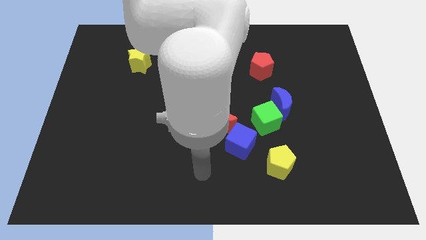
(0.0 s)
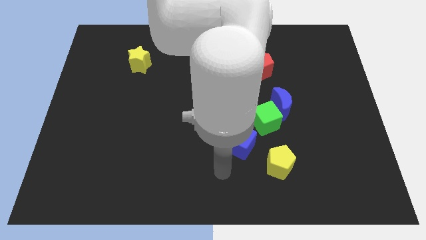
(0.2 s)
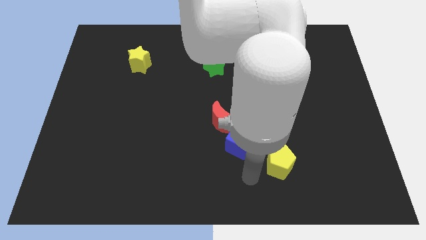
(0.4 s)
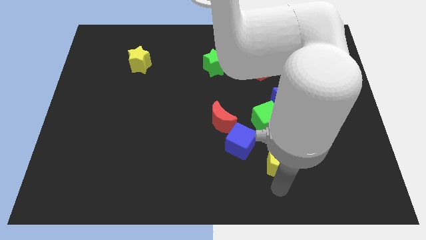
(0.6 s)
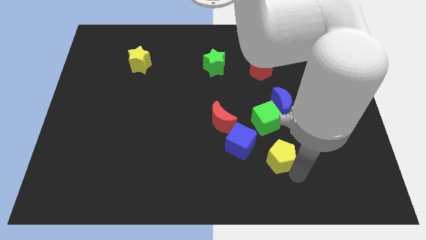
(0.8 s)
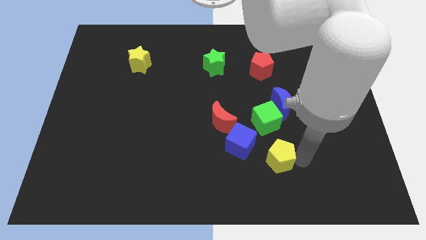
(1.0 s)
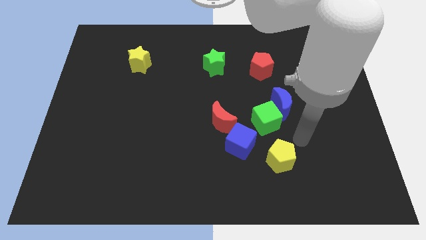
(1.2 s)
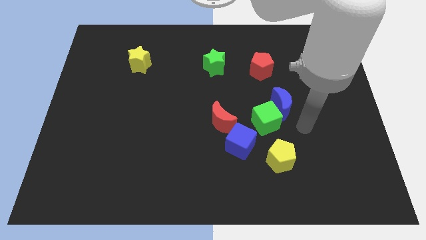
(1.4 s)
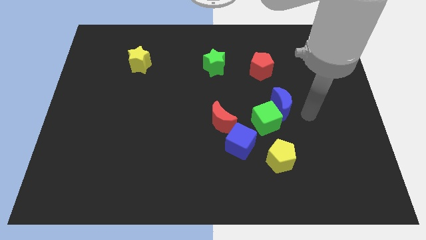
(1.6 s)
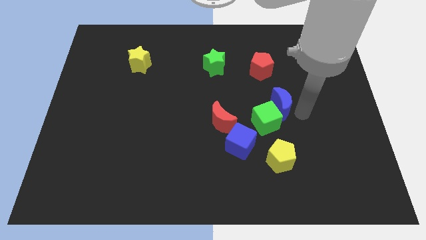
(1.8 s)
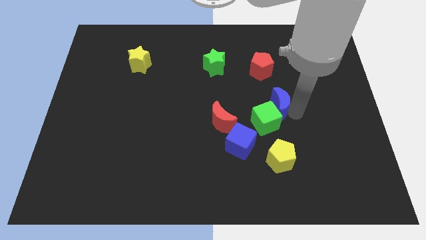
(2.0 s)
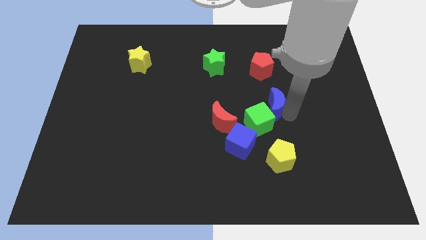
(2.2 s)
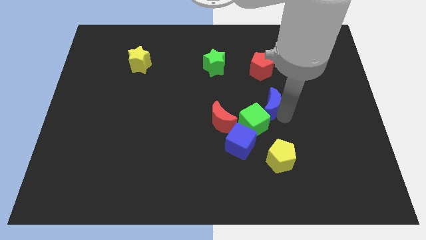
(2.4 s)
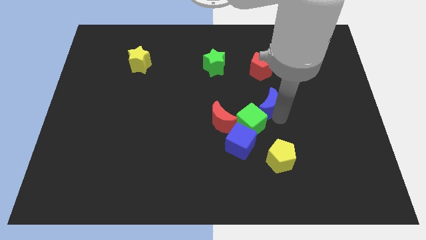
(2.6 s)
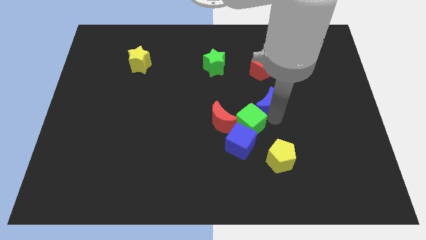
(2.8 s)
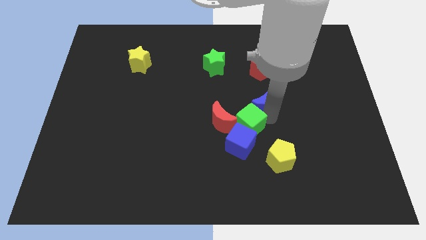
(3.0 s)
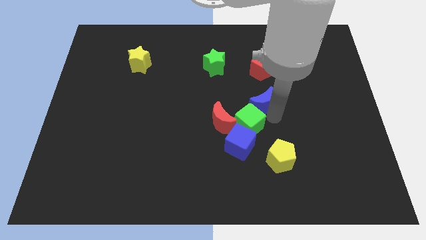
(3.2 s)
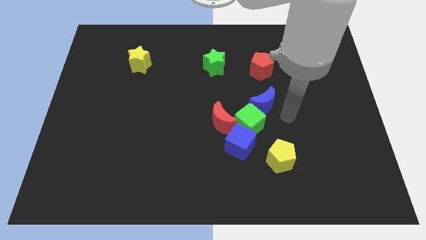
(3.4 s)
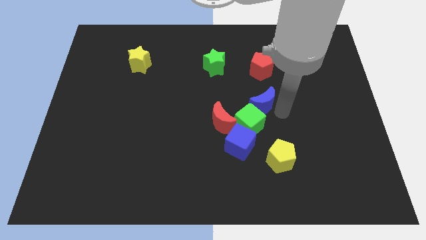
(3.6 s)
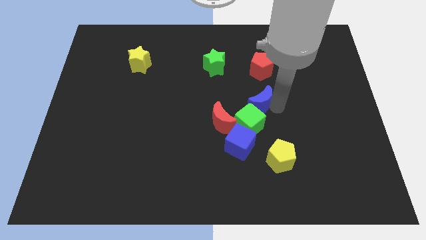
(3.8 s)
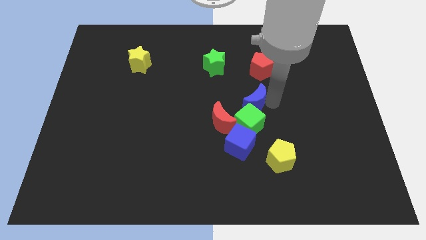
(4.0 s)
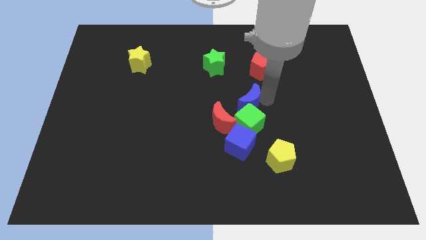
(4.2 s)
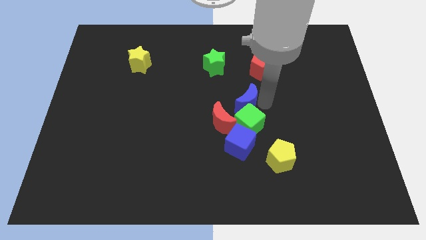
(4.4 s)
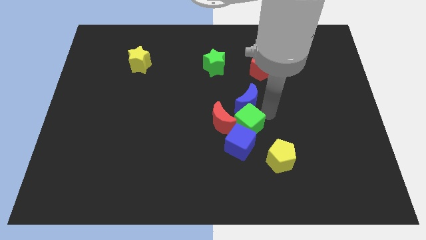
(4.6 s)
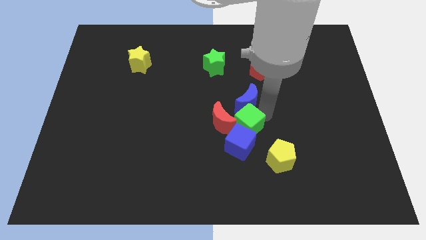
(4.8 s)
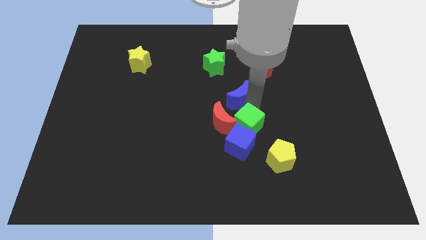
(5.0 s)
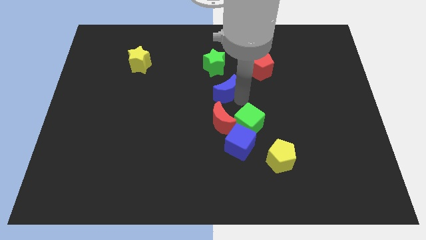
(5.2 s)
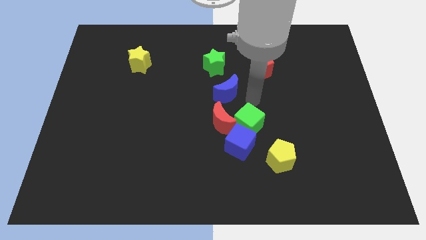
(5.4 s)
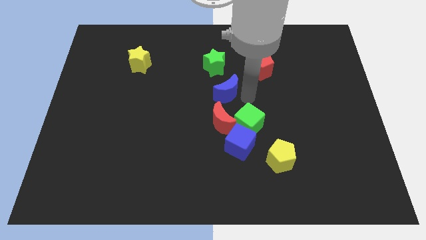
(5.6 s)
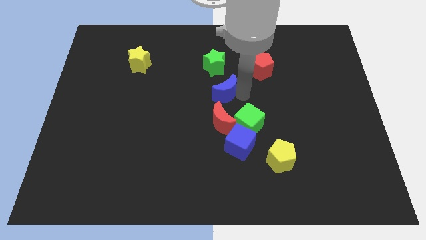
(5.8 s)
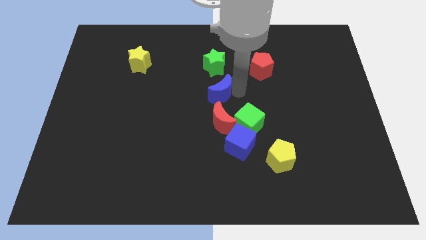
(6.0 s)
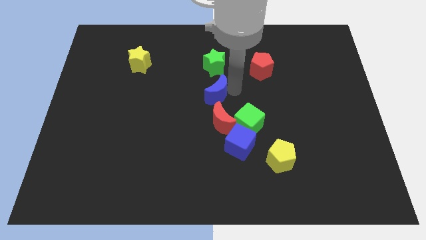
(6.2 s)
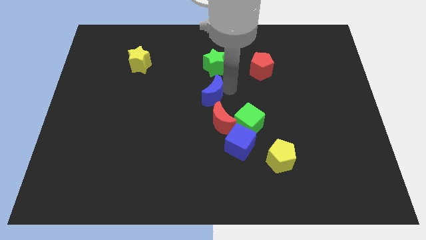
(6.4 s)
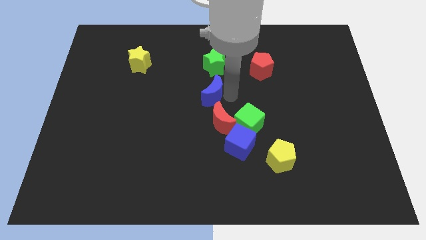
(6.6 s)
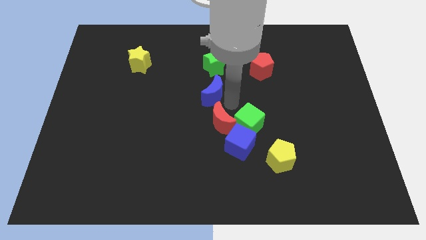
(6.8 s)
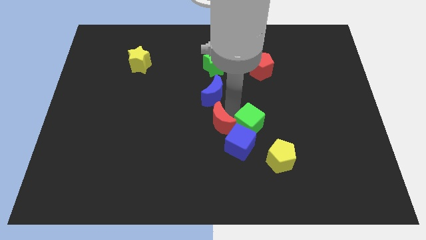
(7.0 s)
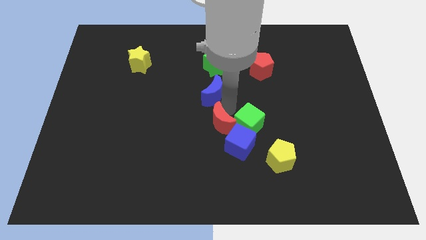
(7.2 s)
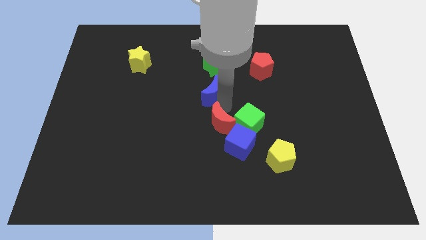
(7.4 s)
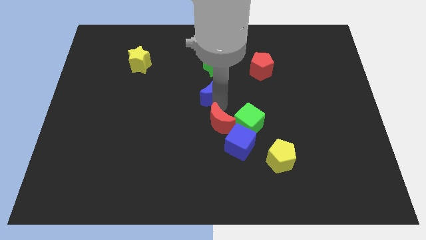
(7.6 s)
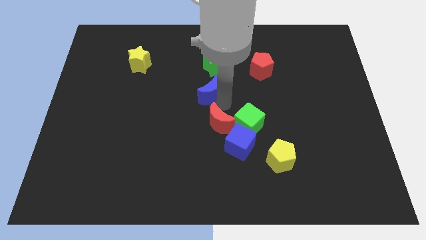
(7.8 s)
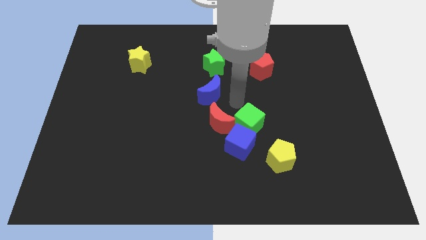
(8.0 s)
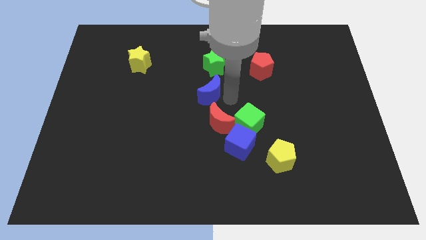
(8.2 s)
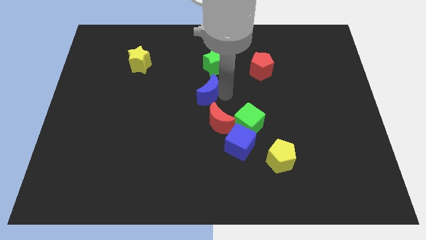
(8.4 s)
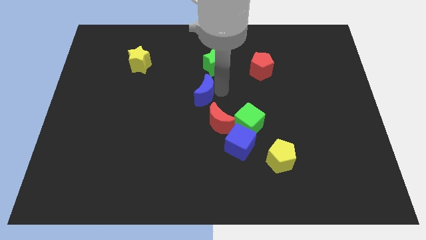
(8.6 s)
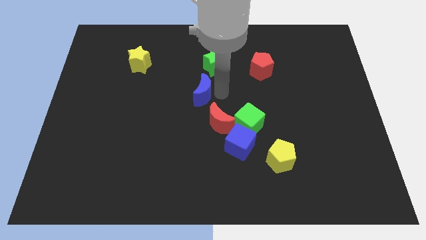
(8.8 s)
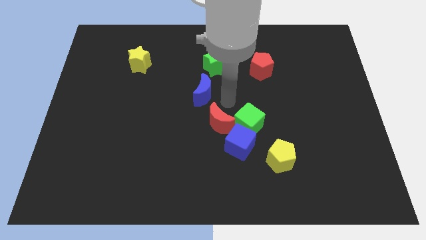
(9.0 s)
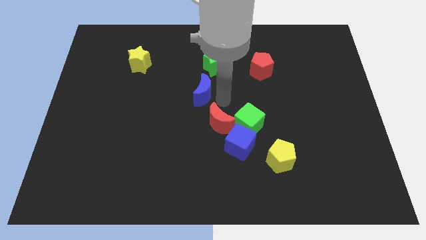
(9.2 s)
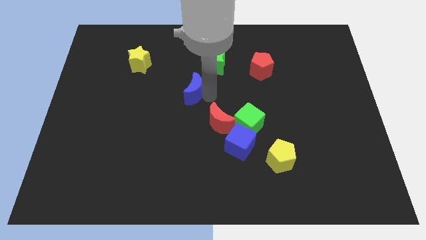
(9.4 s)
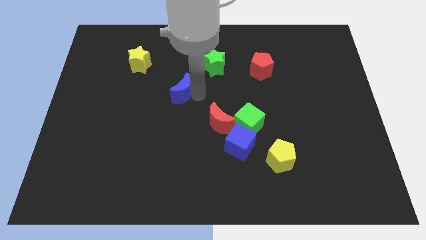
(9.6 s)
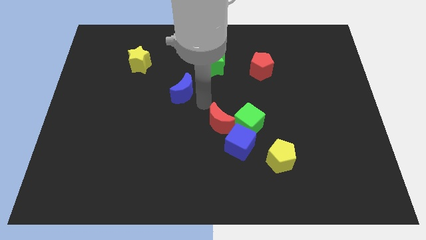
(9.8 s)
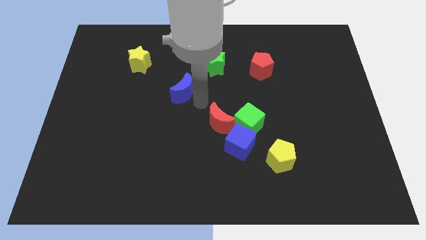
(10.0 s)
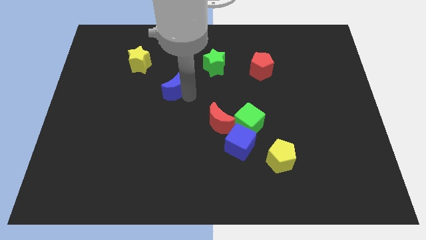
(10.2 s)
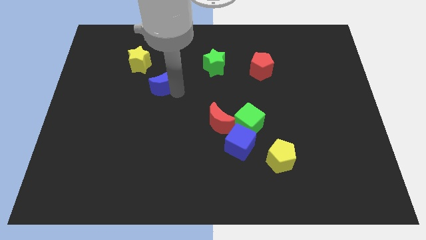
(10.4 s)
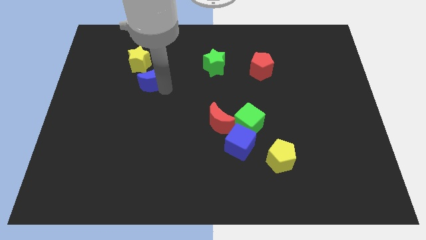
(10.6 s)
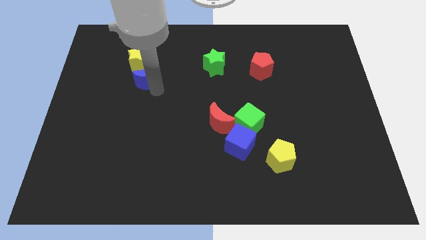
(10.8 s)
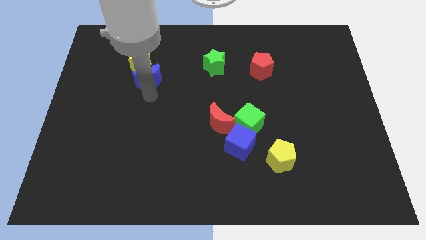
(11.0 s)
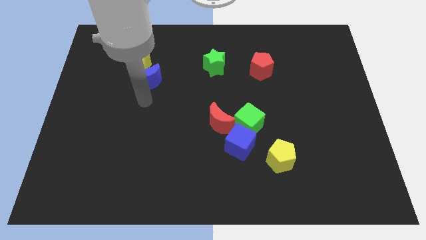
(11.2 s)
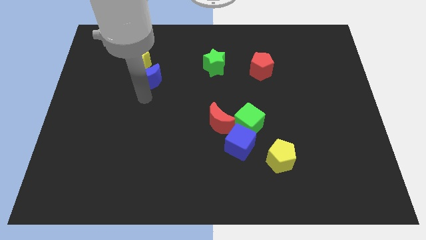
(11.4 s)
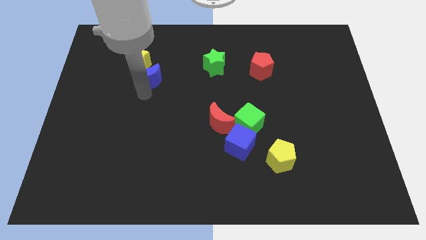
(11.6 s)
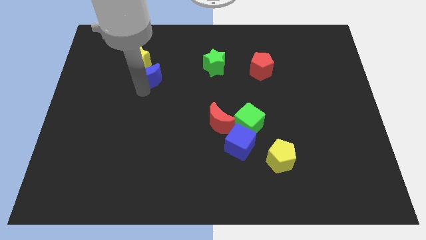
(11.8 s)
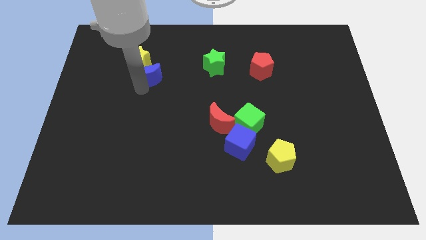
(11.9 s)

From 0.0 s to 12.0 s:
put the blue moon close to the yellow star

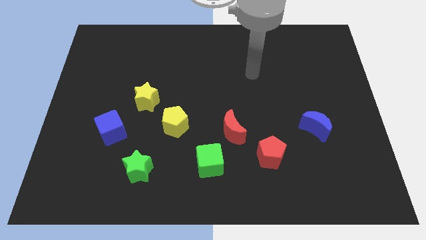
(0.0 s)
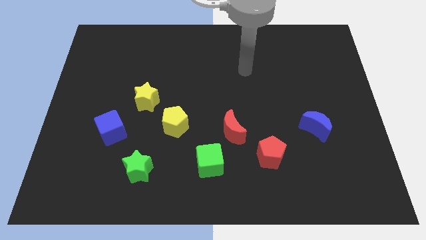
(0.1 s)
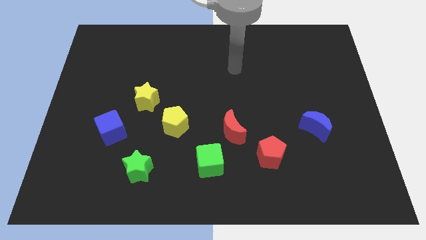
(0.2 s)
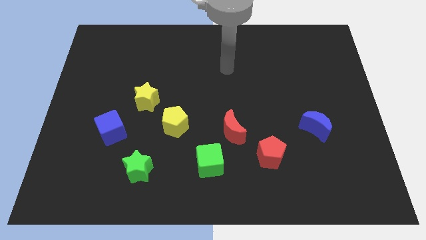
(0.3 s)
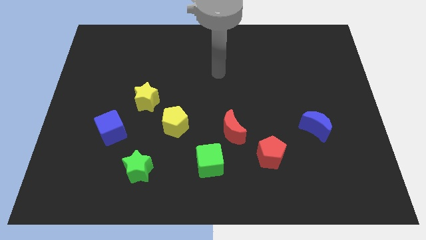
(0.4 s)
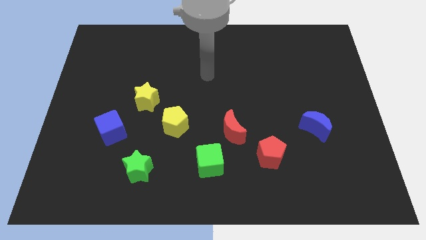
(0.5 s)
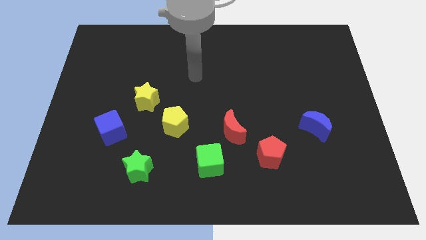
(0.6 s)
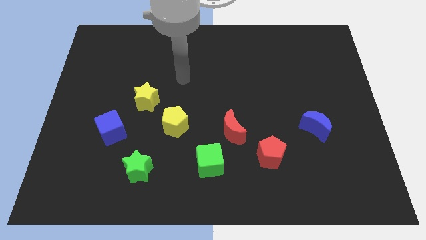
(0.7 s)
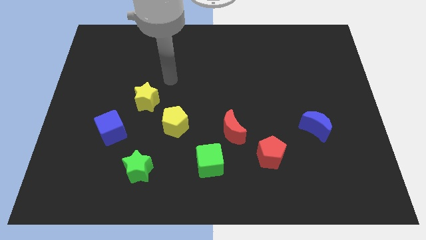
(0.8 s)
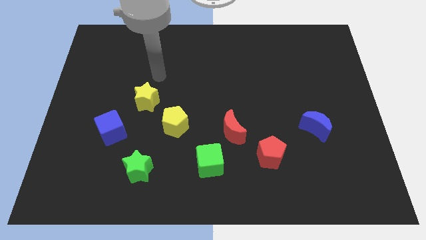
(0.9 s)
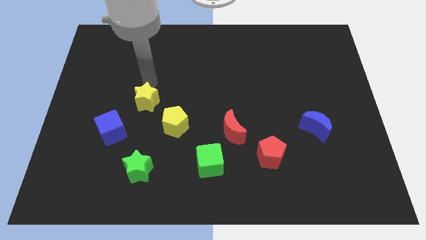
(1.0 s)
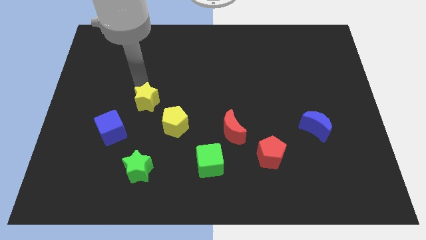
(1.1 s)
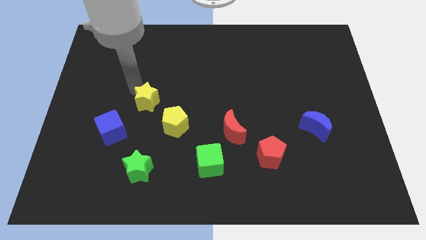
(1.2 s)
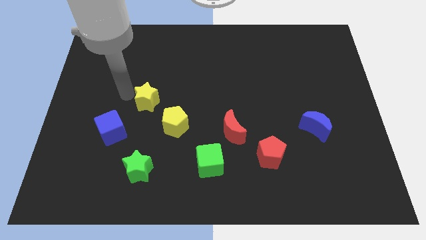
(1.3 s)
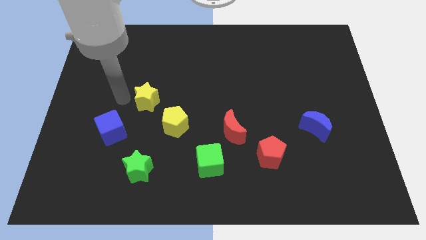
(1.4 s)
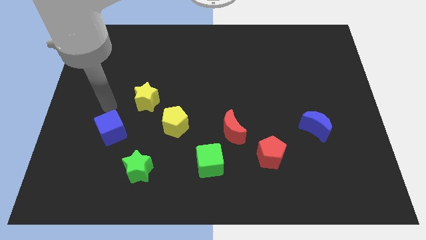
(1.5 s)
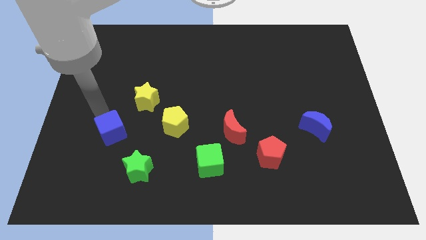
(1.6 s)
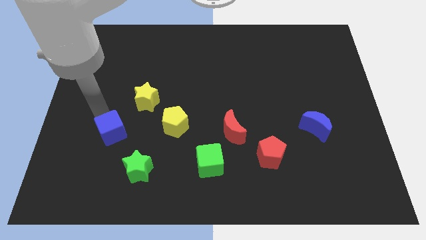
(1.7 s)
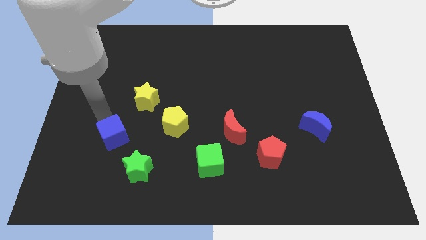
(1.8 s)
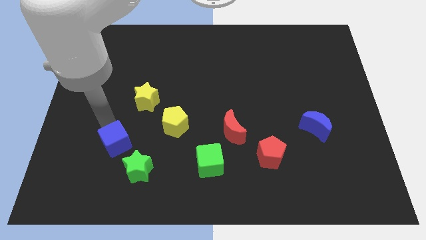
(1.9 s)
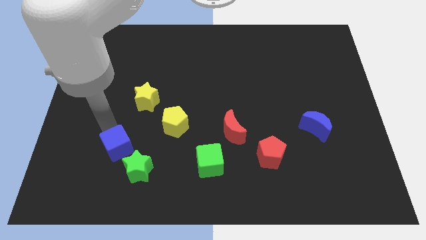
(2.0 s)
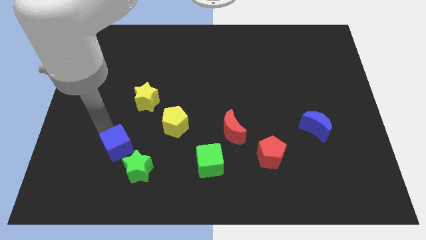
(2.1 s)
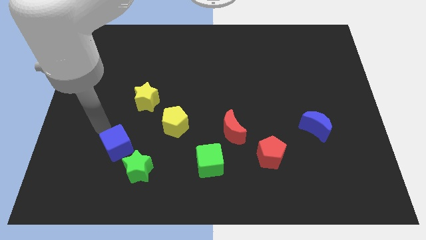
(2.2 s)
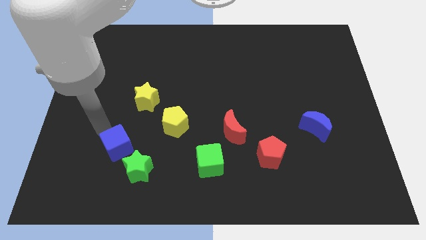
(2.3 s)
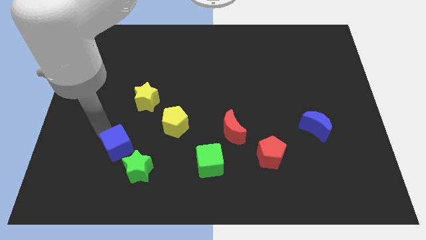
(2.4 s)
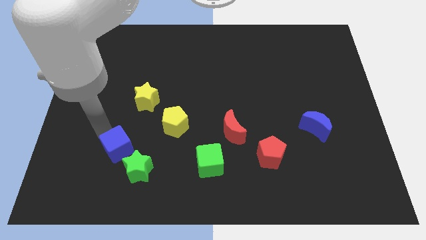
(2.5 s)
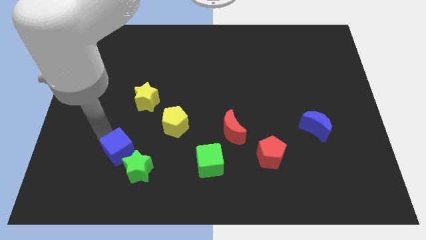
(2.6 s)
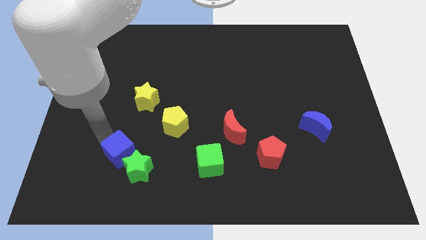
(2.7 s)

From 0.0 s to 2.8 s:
push the blue cube to the green star
